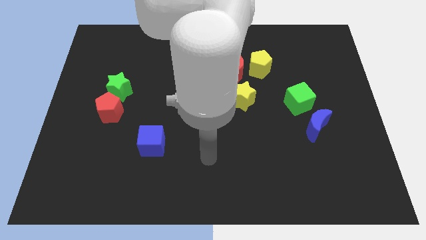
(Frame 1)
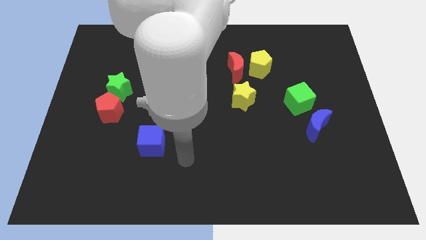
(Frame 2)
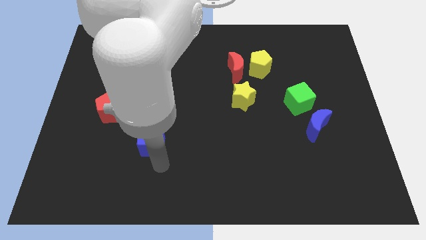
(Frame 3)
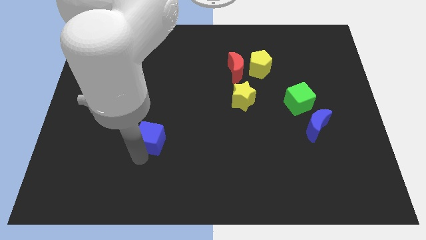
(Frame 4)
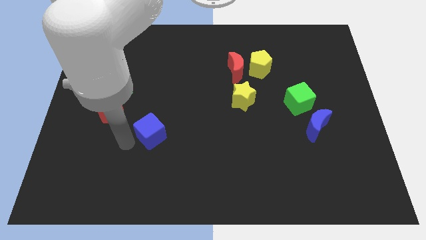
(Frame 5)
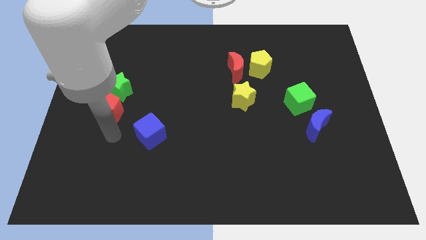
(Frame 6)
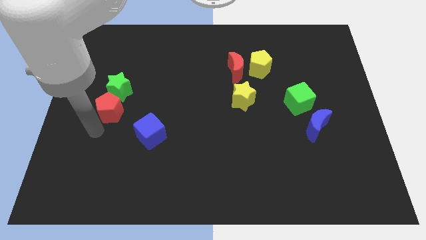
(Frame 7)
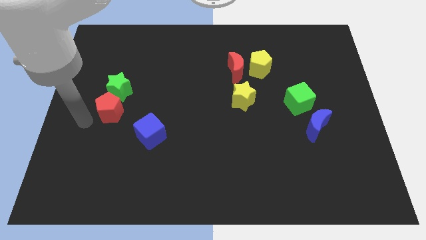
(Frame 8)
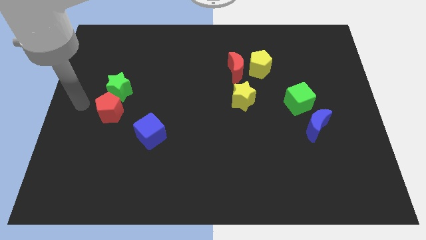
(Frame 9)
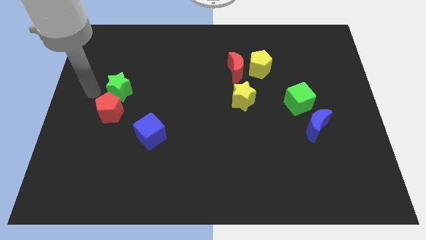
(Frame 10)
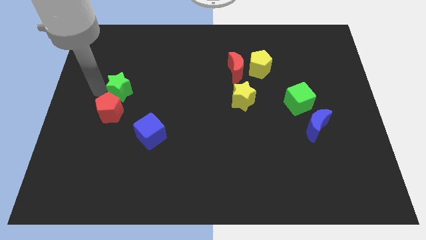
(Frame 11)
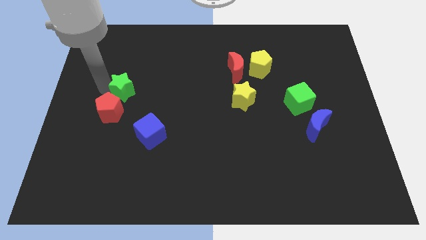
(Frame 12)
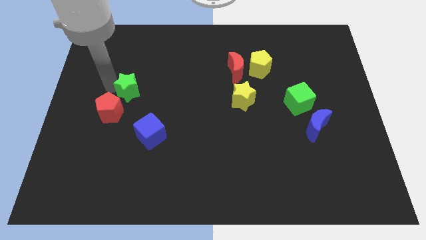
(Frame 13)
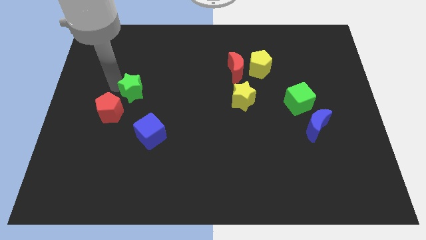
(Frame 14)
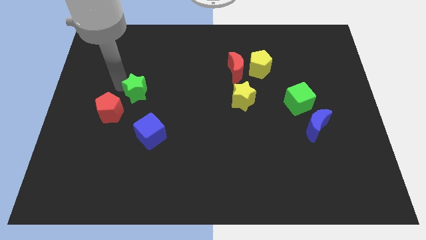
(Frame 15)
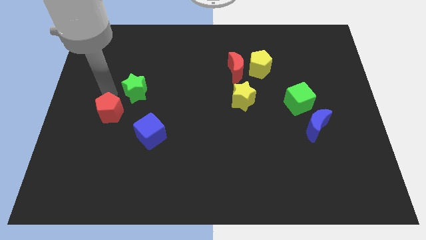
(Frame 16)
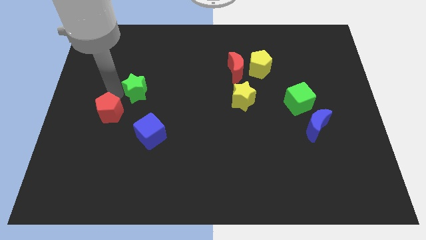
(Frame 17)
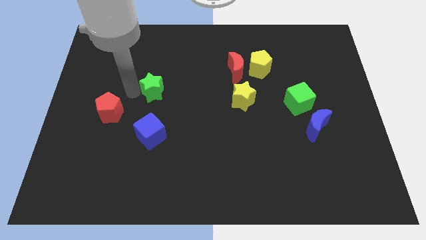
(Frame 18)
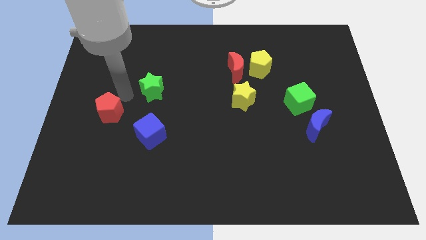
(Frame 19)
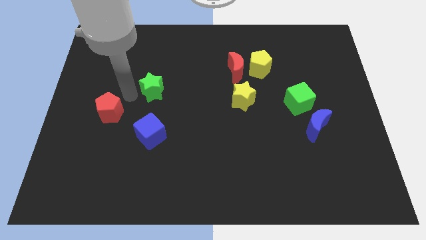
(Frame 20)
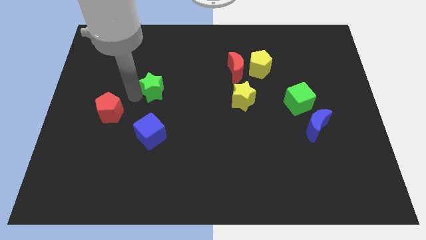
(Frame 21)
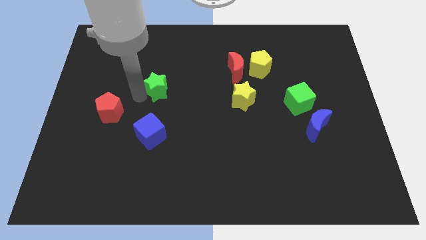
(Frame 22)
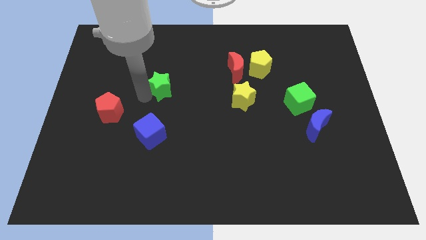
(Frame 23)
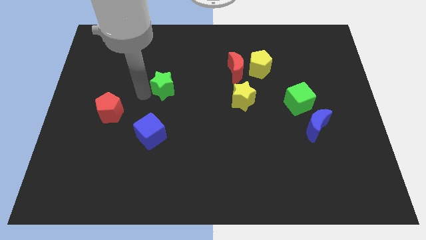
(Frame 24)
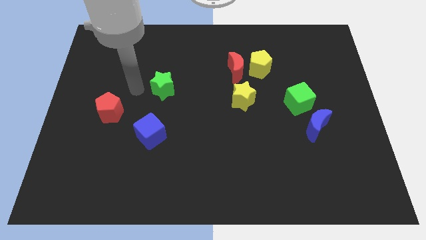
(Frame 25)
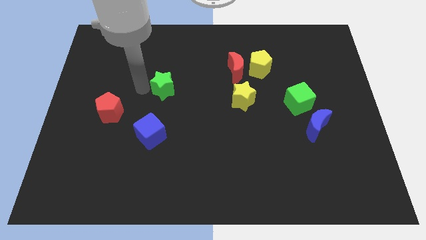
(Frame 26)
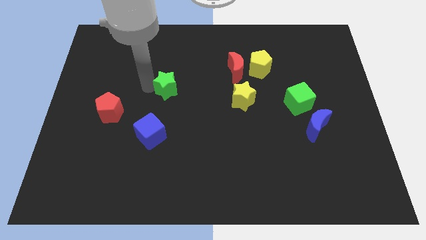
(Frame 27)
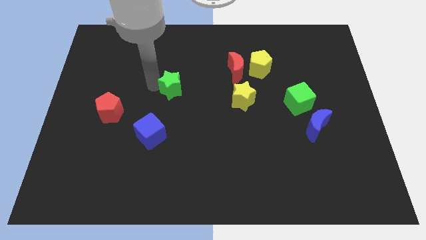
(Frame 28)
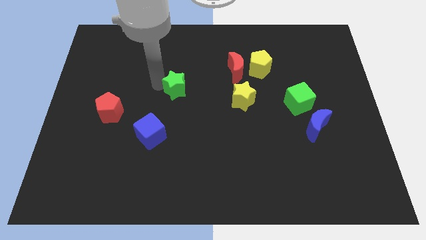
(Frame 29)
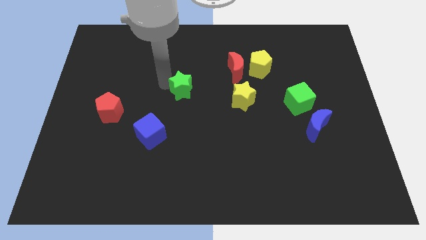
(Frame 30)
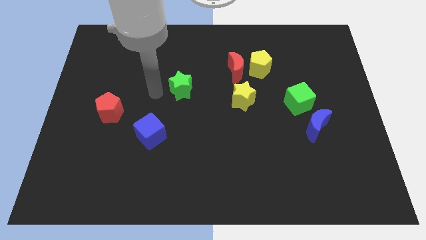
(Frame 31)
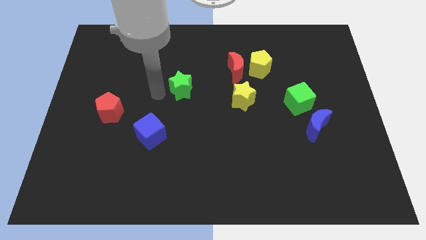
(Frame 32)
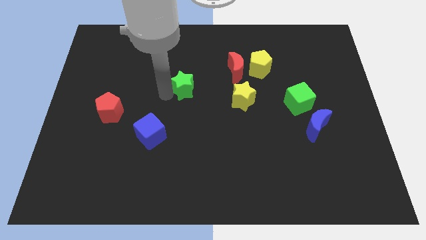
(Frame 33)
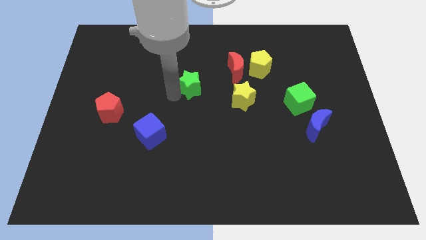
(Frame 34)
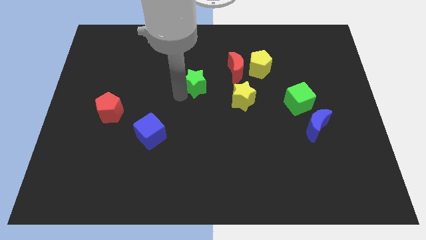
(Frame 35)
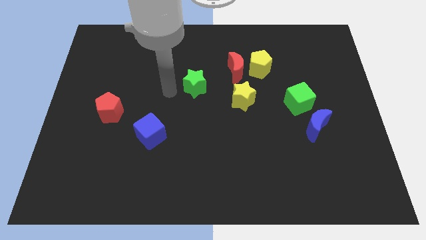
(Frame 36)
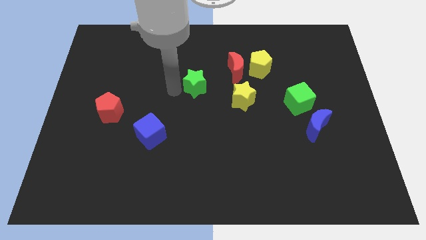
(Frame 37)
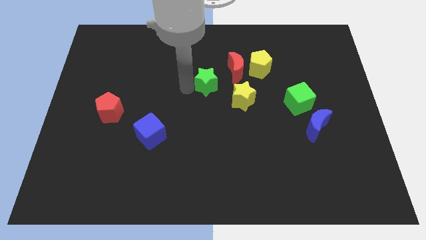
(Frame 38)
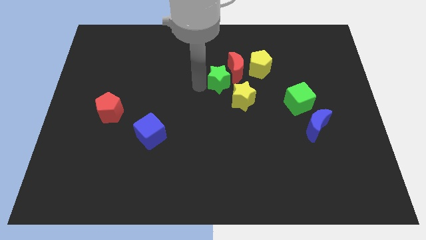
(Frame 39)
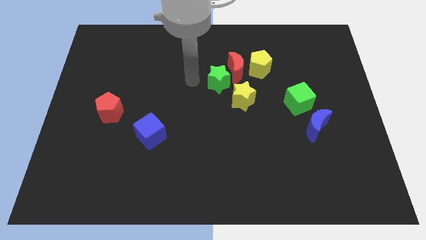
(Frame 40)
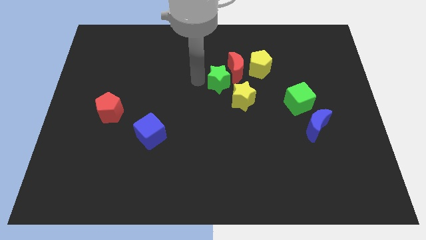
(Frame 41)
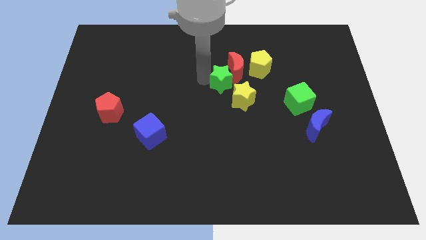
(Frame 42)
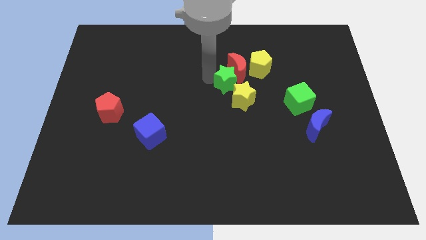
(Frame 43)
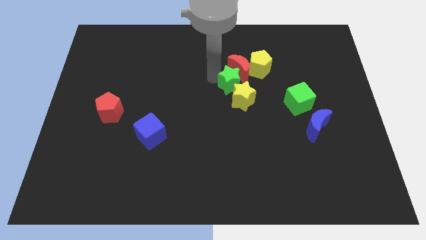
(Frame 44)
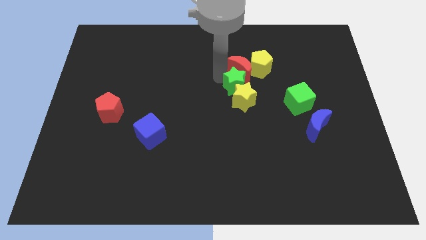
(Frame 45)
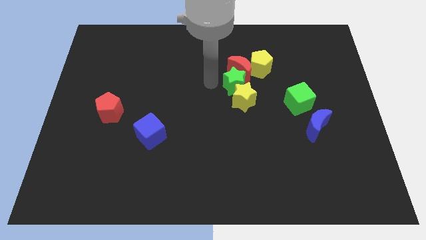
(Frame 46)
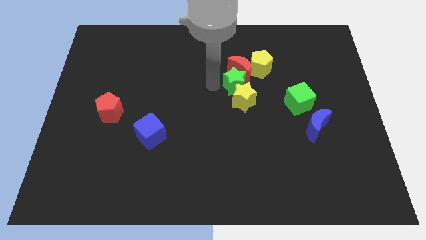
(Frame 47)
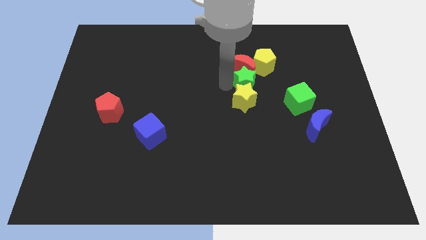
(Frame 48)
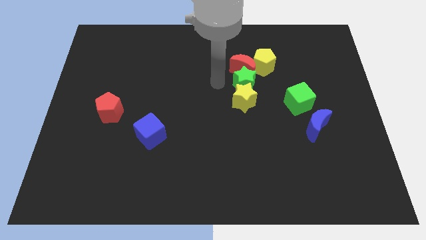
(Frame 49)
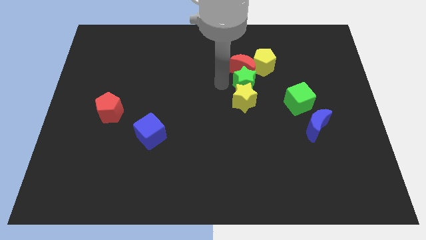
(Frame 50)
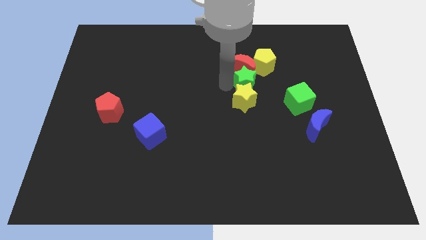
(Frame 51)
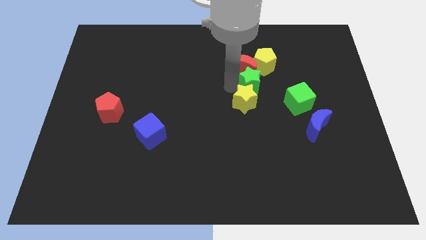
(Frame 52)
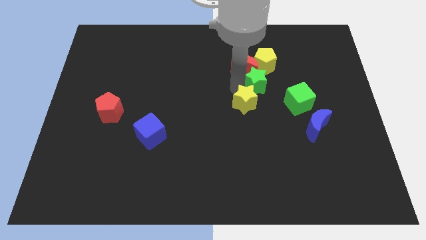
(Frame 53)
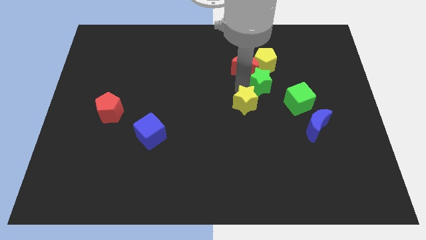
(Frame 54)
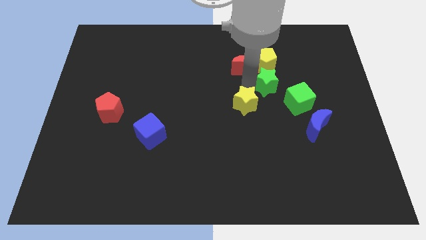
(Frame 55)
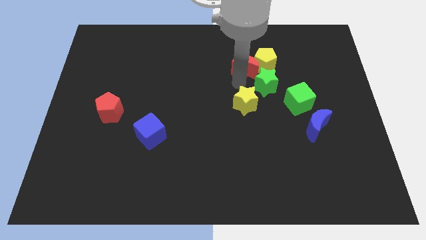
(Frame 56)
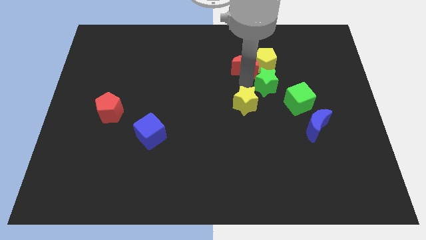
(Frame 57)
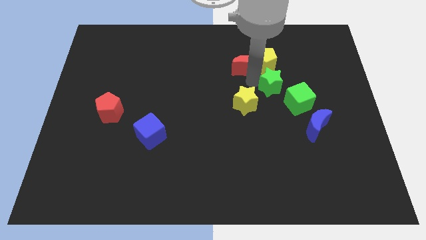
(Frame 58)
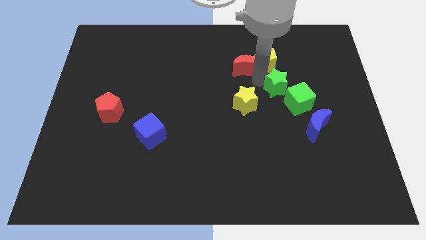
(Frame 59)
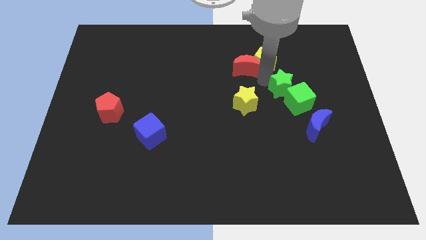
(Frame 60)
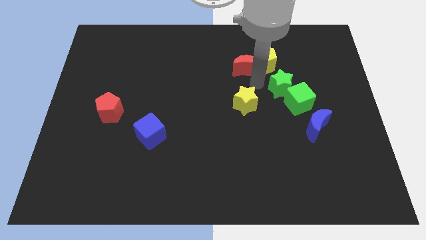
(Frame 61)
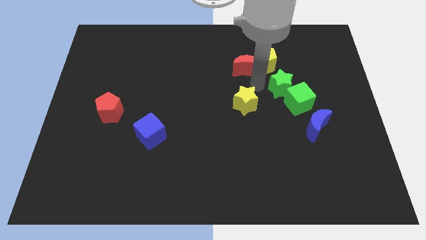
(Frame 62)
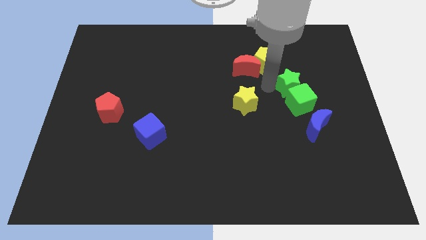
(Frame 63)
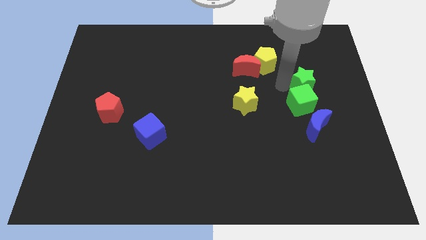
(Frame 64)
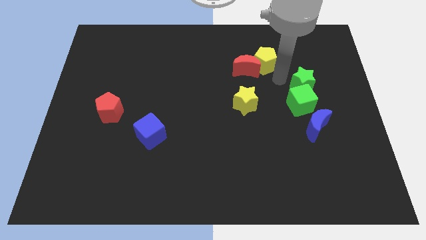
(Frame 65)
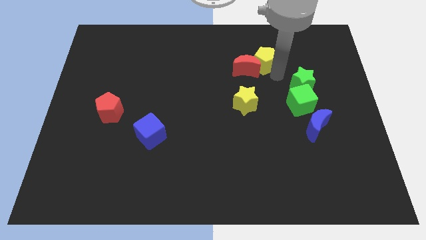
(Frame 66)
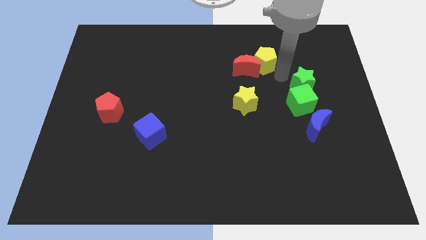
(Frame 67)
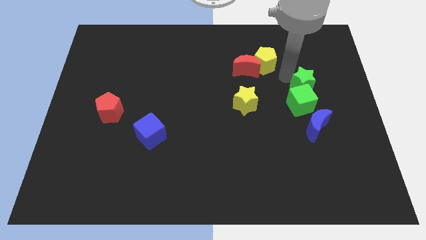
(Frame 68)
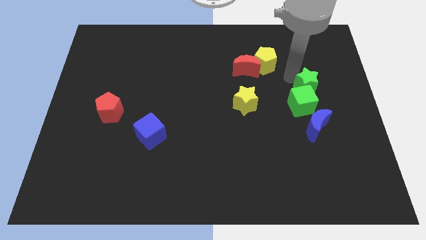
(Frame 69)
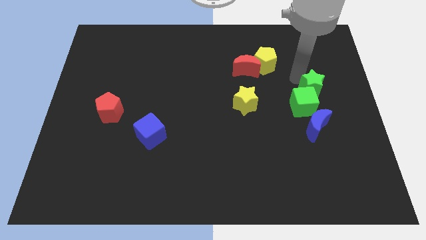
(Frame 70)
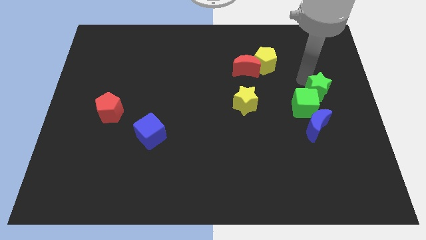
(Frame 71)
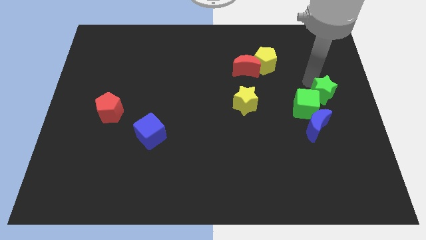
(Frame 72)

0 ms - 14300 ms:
move the green star to the top right of the blue moon
